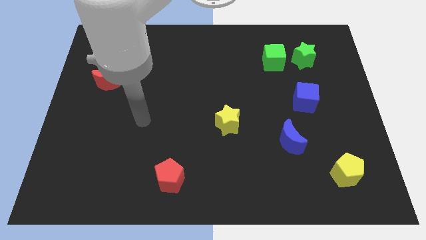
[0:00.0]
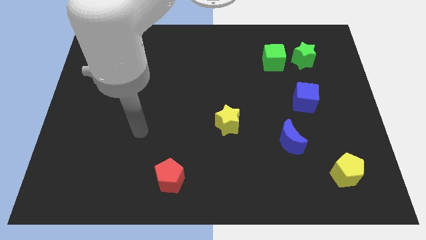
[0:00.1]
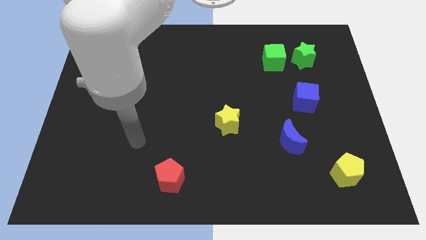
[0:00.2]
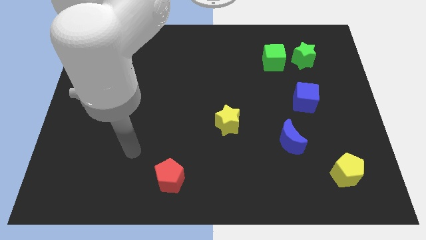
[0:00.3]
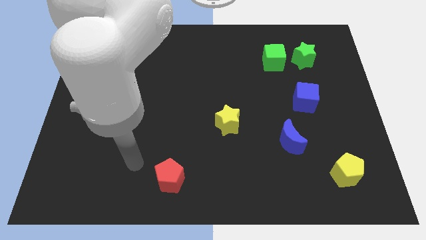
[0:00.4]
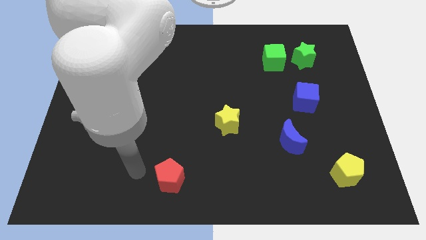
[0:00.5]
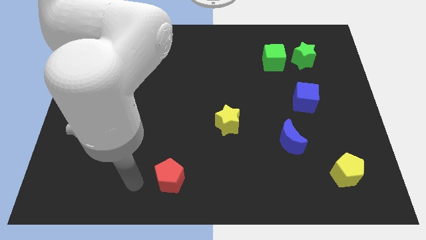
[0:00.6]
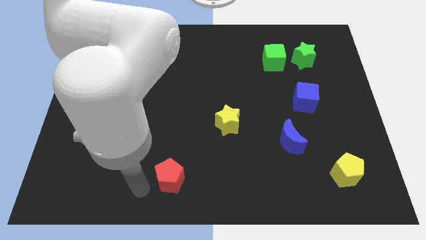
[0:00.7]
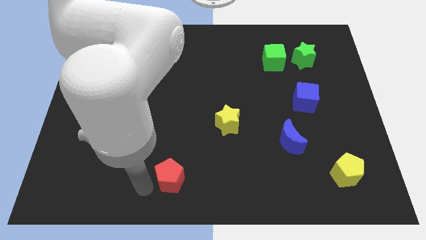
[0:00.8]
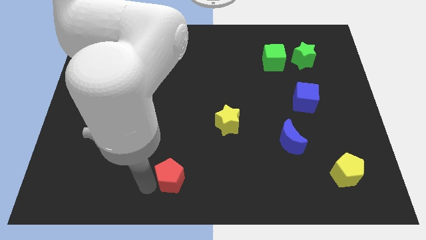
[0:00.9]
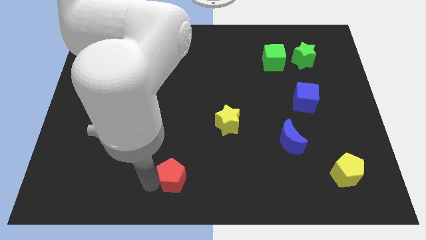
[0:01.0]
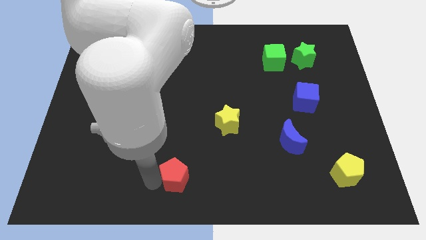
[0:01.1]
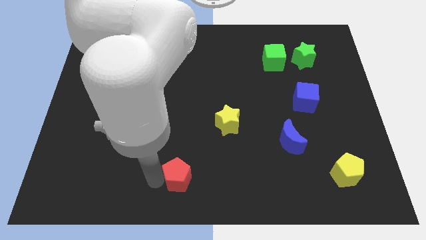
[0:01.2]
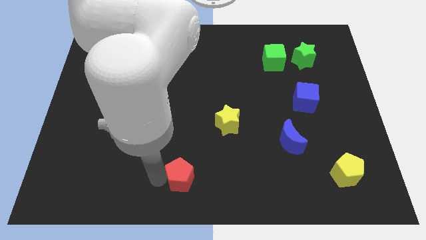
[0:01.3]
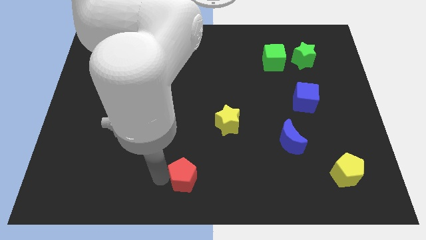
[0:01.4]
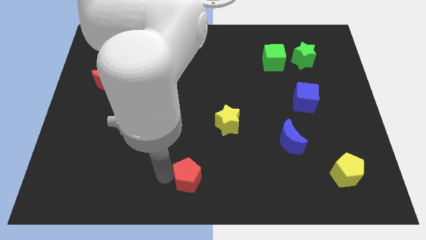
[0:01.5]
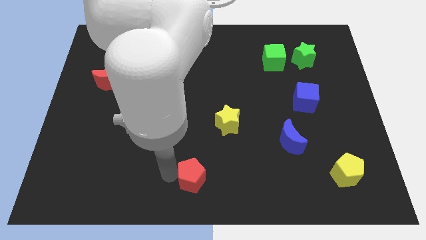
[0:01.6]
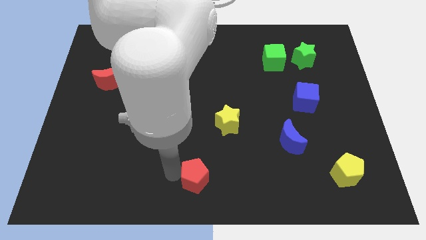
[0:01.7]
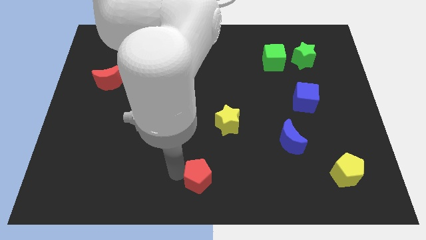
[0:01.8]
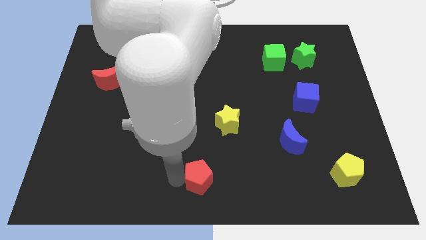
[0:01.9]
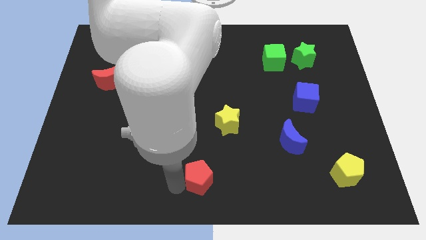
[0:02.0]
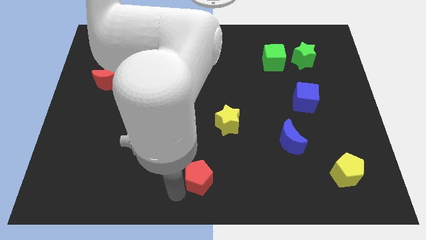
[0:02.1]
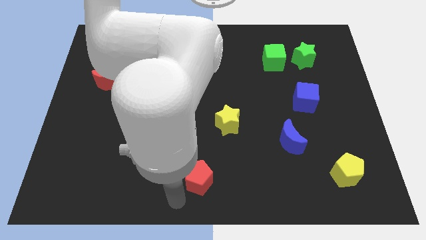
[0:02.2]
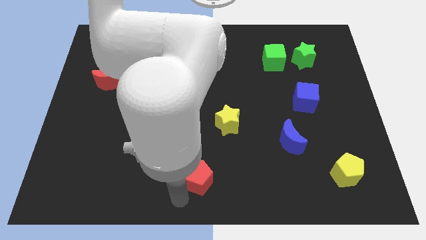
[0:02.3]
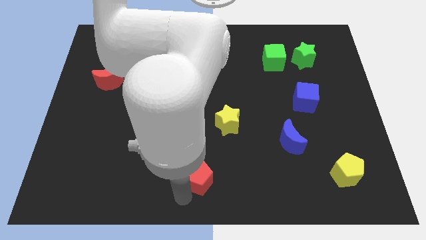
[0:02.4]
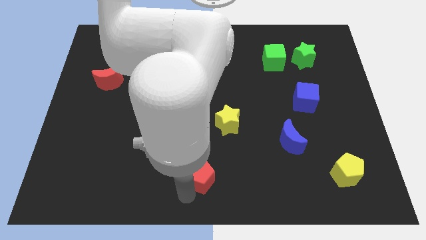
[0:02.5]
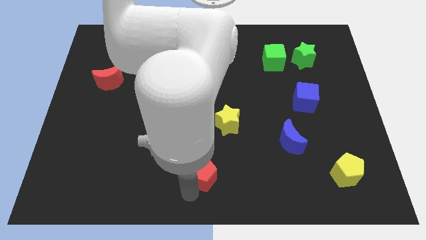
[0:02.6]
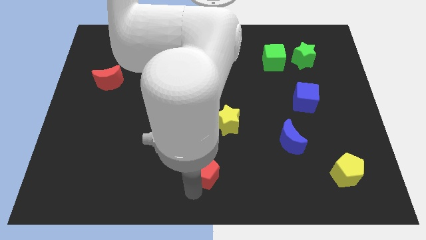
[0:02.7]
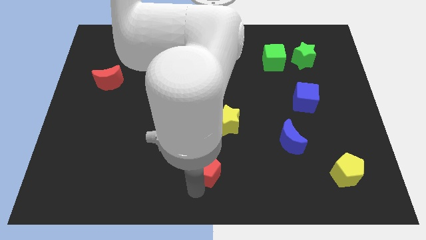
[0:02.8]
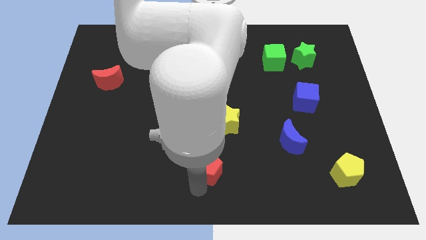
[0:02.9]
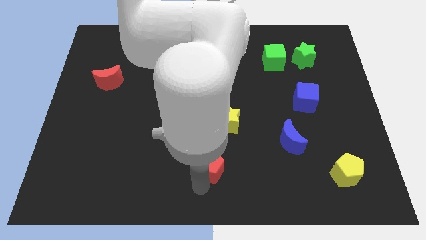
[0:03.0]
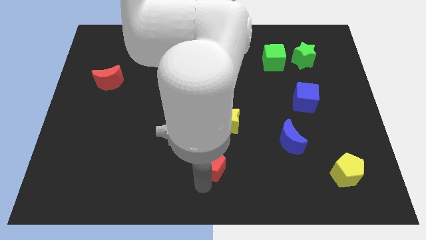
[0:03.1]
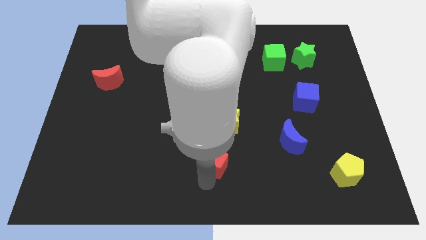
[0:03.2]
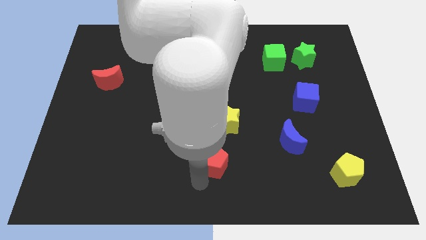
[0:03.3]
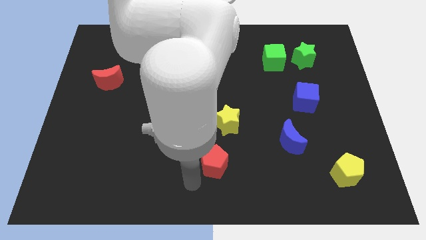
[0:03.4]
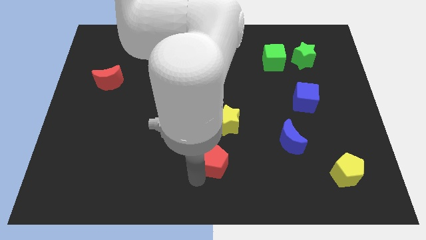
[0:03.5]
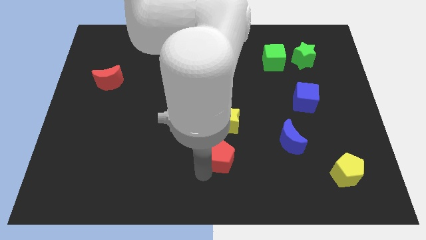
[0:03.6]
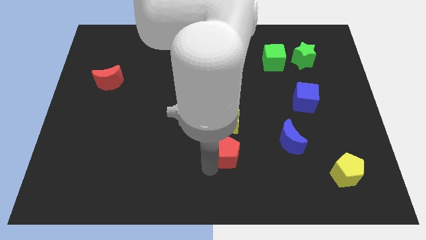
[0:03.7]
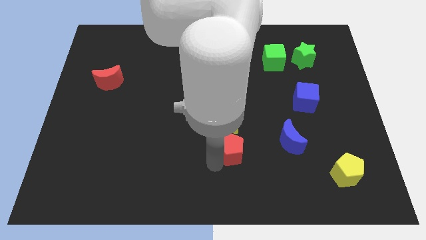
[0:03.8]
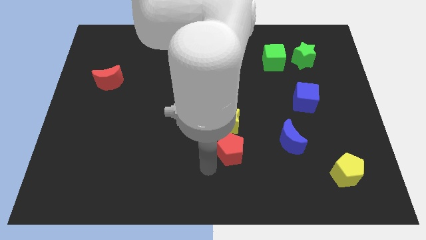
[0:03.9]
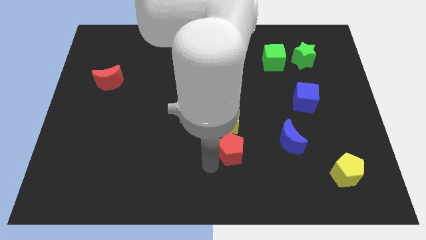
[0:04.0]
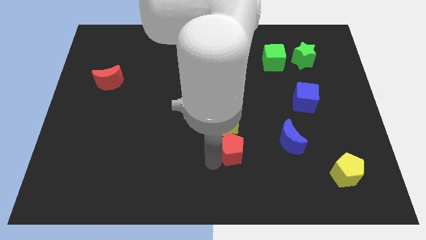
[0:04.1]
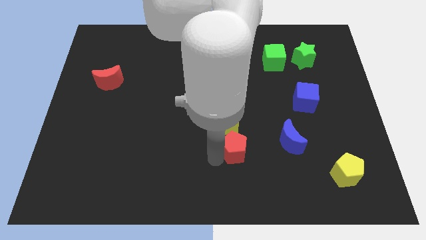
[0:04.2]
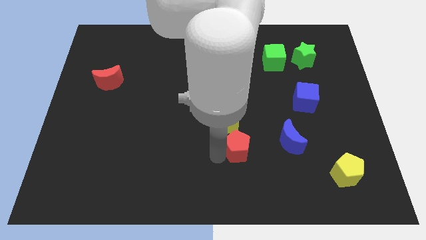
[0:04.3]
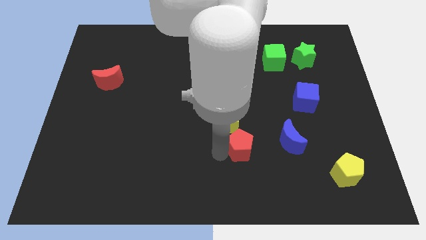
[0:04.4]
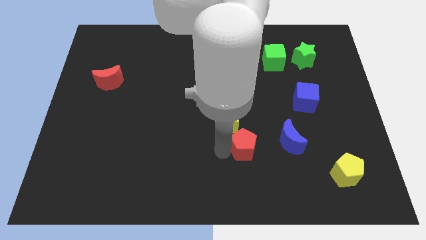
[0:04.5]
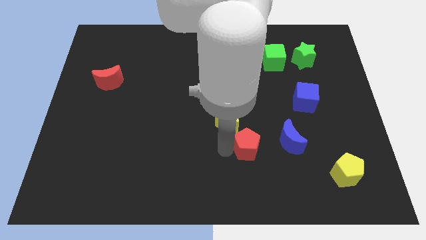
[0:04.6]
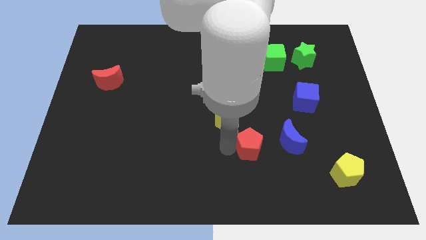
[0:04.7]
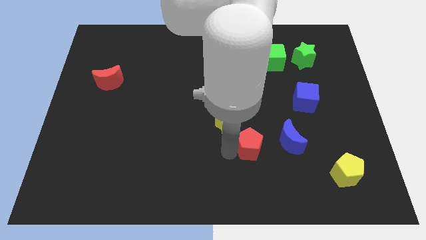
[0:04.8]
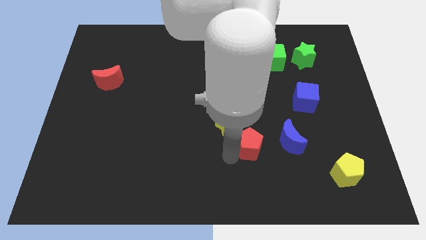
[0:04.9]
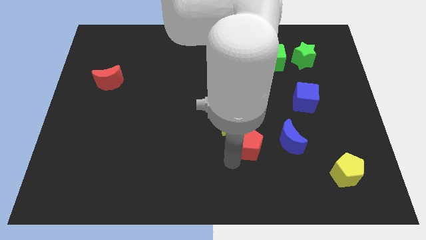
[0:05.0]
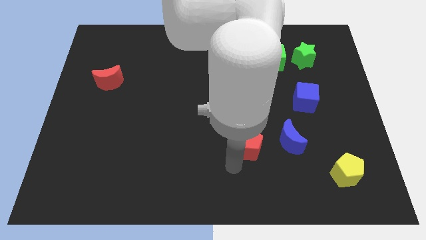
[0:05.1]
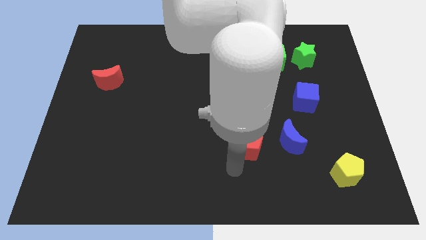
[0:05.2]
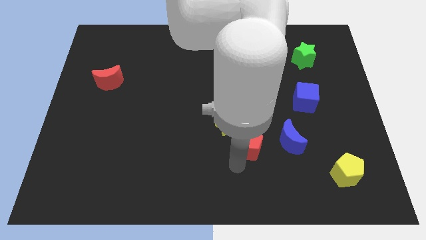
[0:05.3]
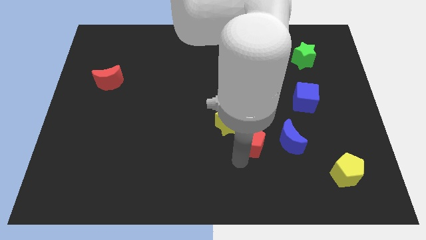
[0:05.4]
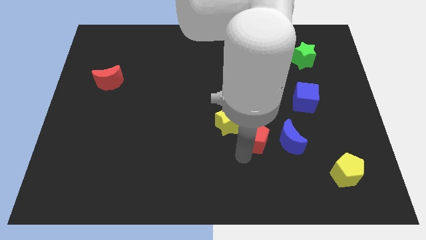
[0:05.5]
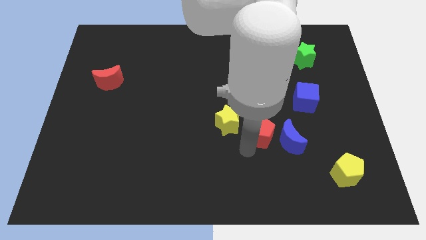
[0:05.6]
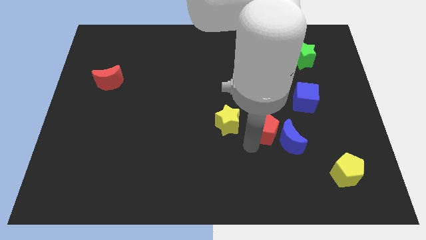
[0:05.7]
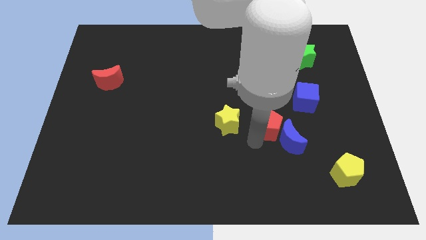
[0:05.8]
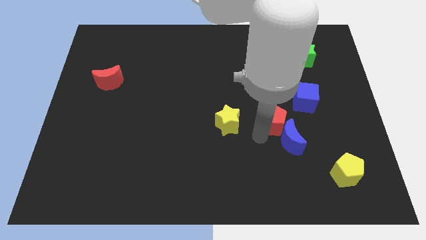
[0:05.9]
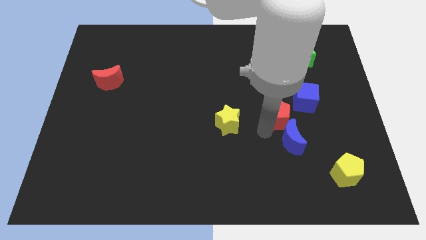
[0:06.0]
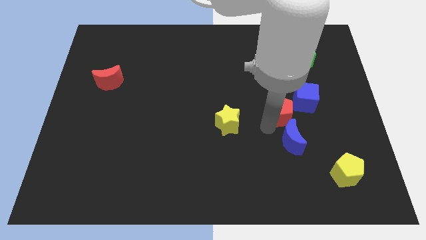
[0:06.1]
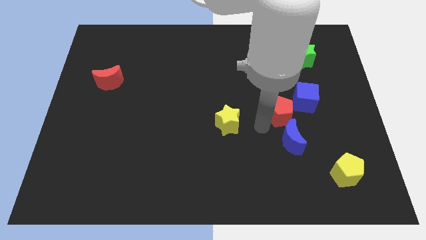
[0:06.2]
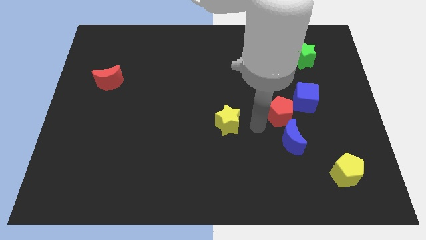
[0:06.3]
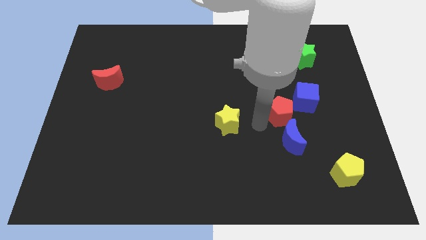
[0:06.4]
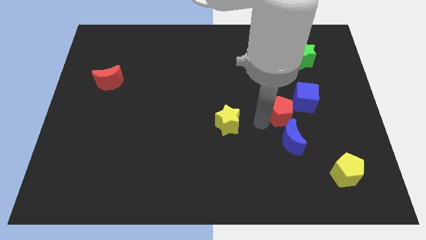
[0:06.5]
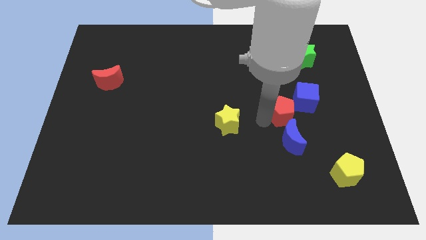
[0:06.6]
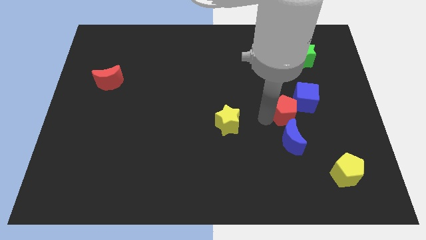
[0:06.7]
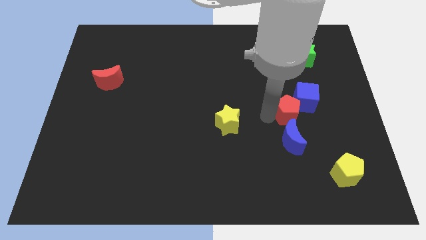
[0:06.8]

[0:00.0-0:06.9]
push the red pentagon towards the blue cube
